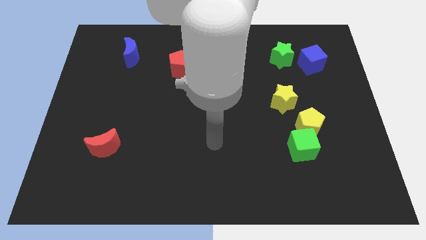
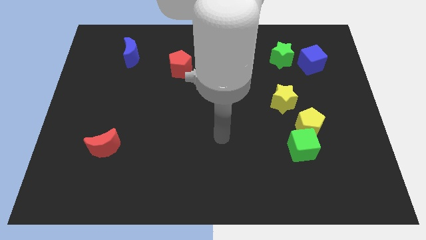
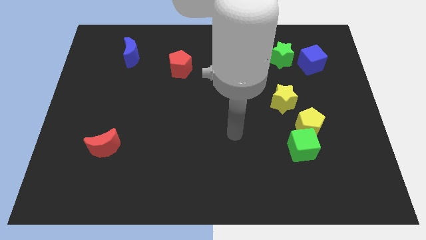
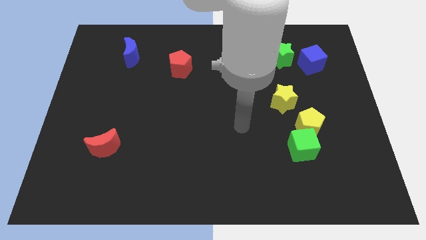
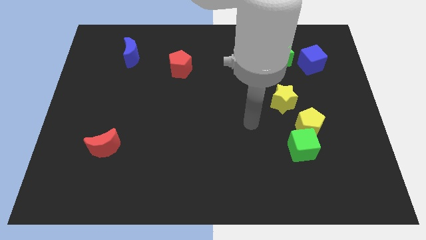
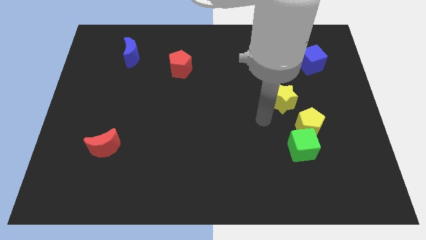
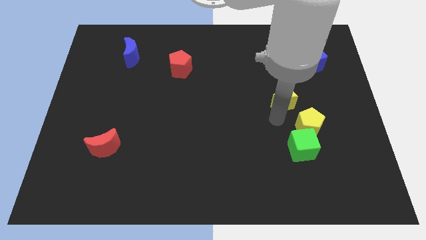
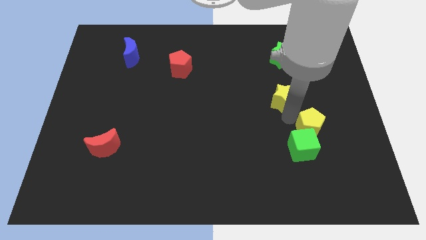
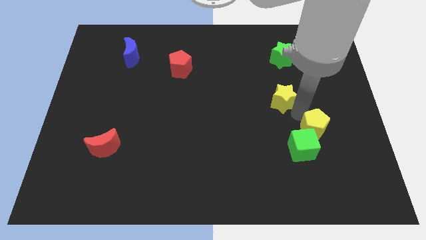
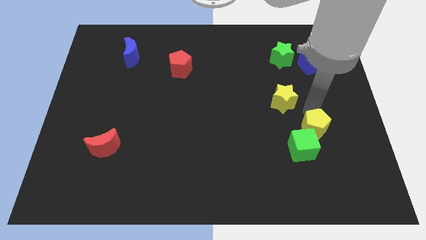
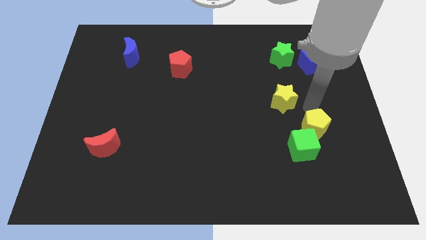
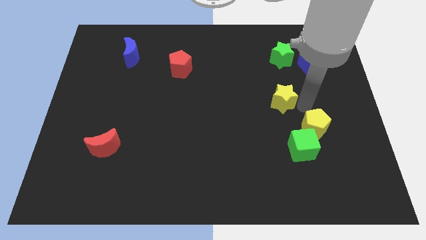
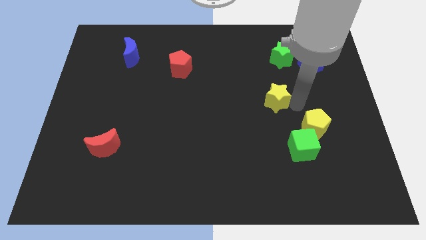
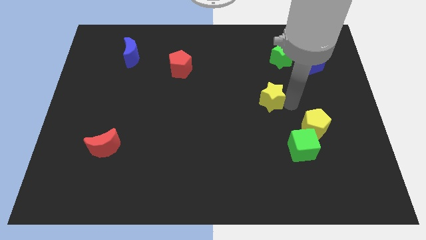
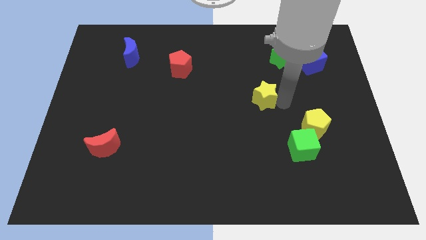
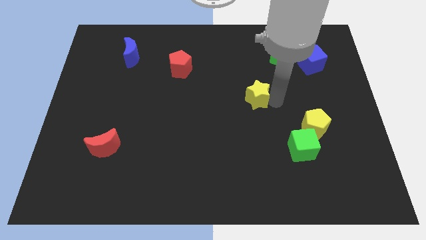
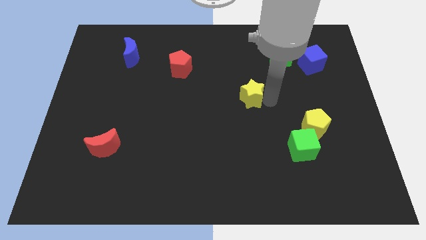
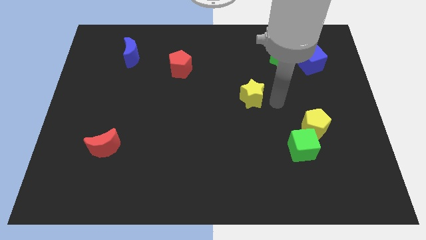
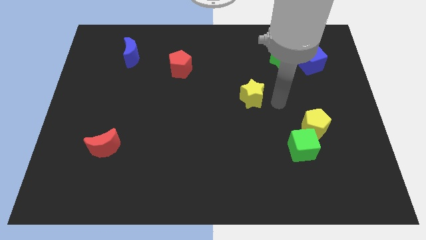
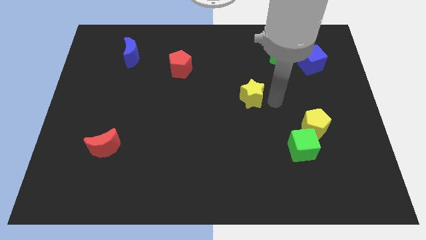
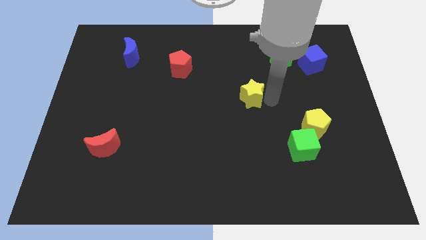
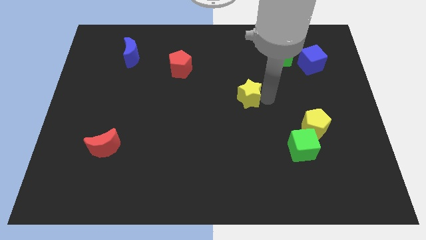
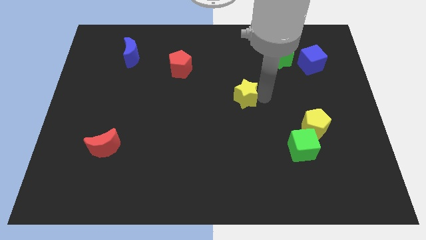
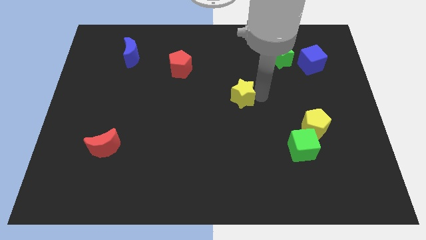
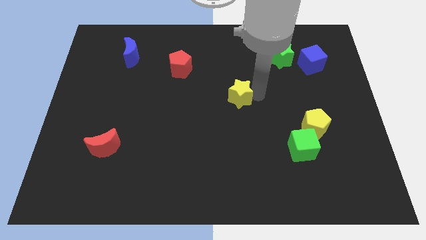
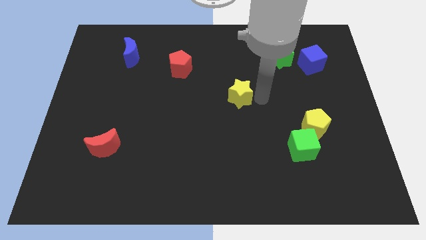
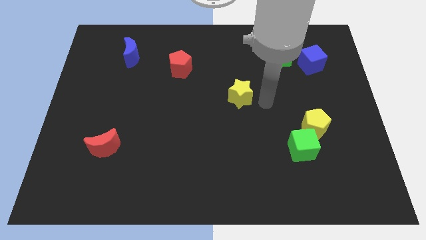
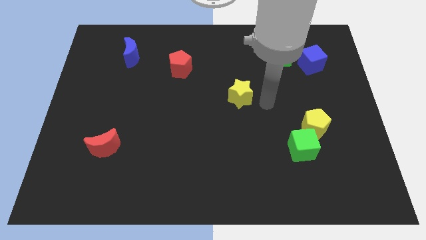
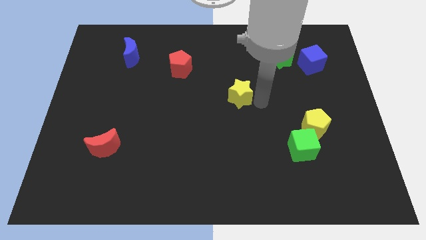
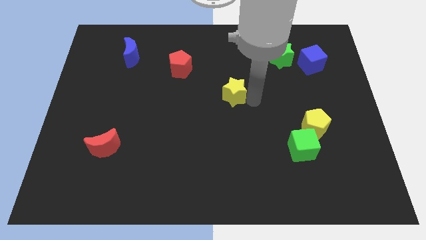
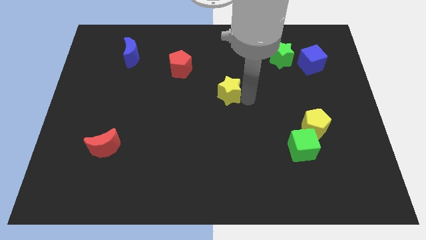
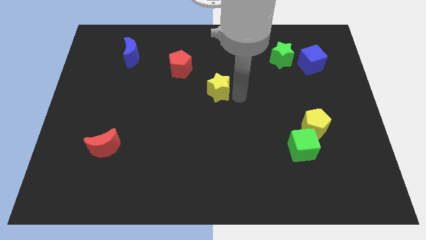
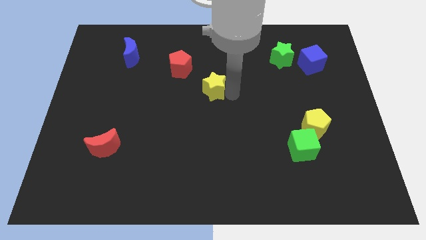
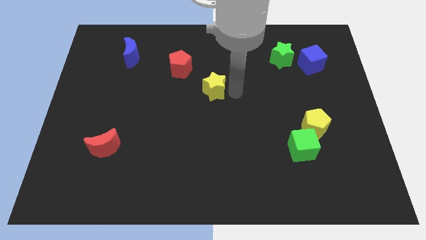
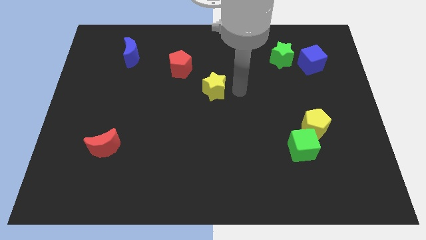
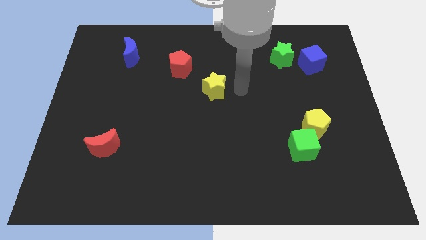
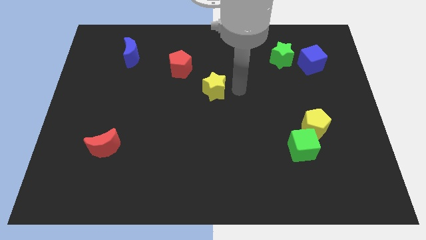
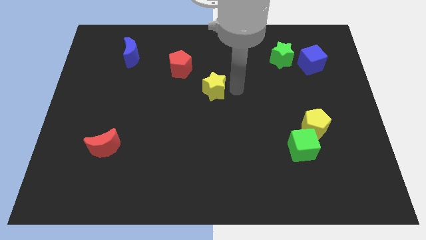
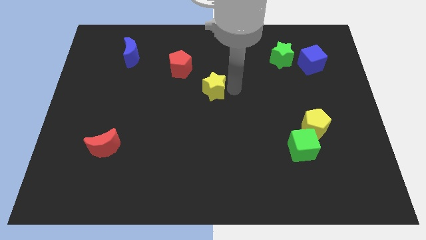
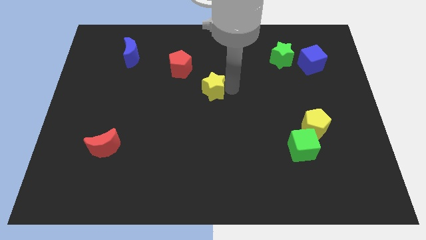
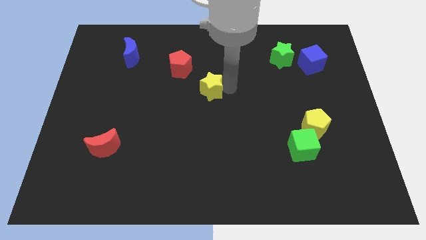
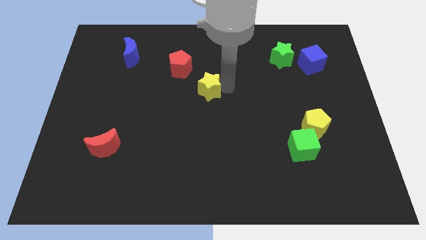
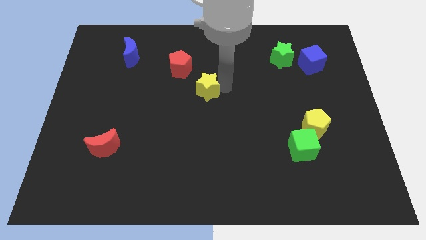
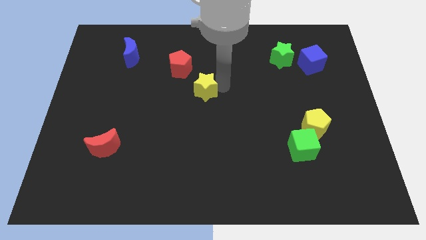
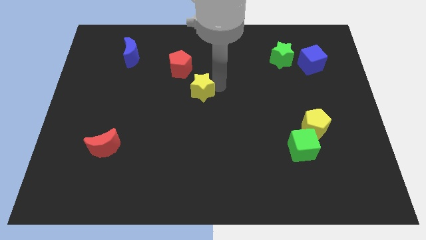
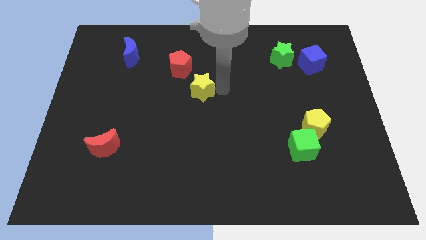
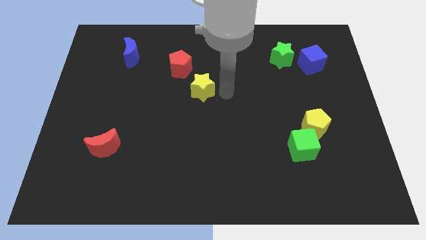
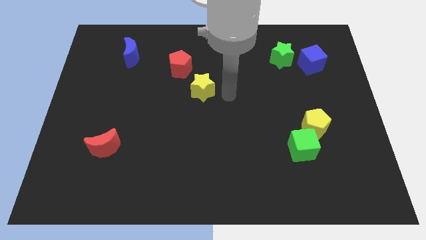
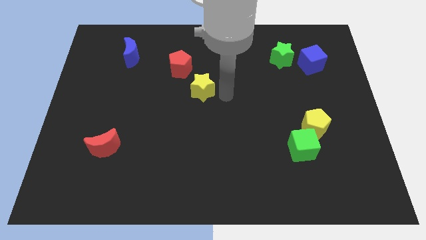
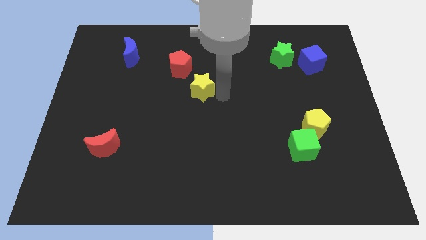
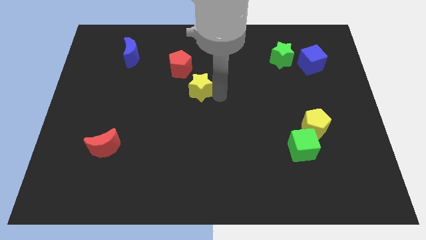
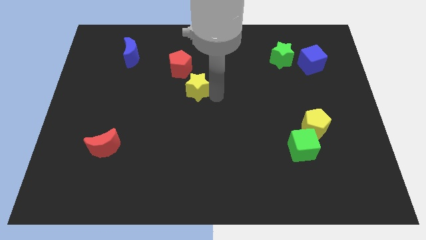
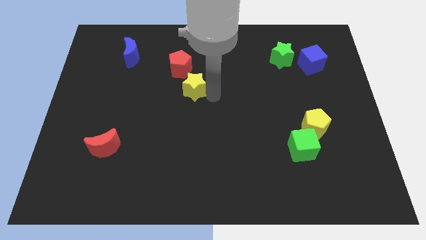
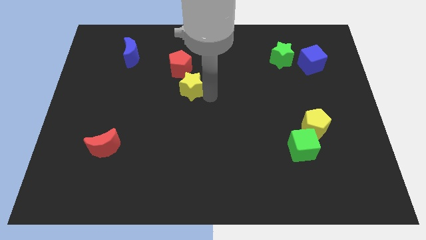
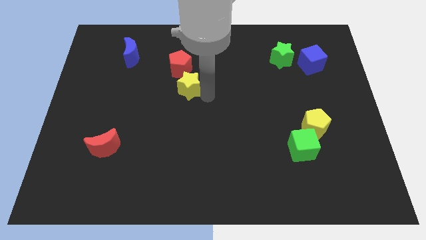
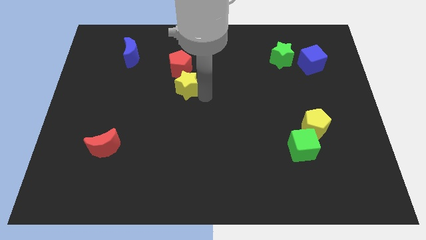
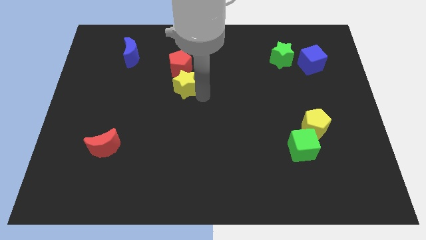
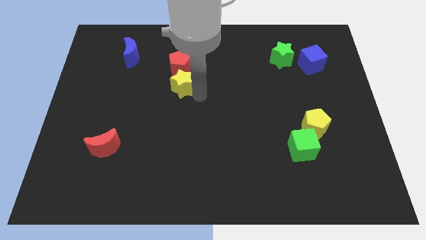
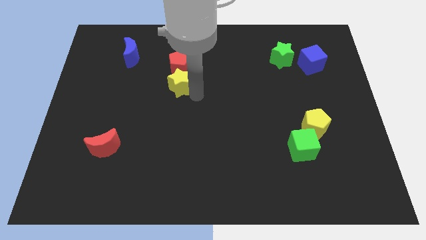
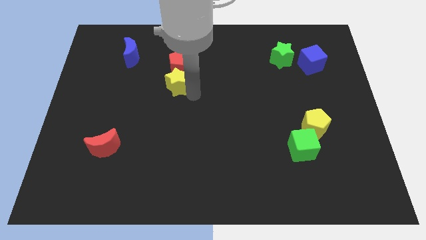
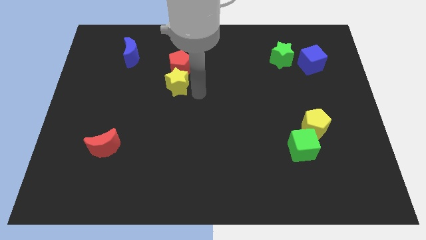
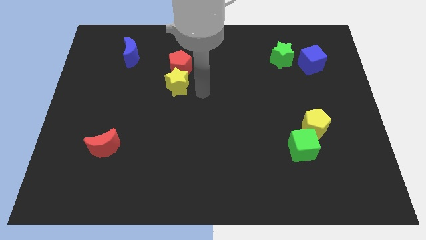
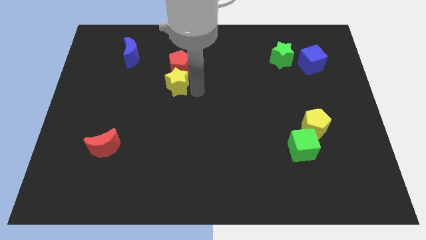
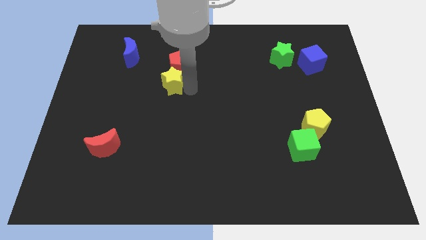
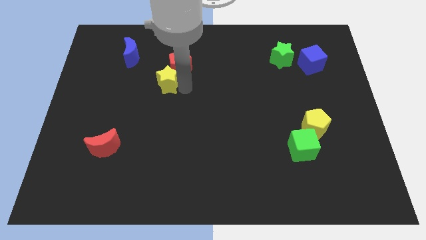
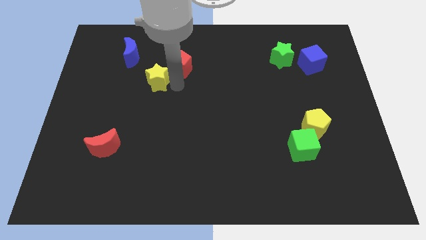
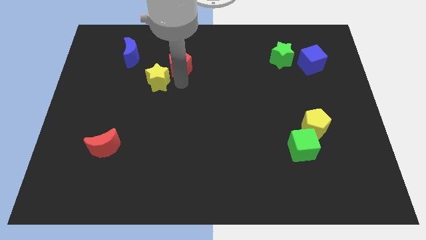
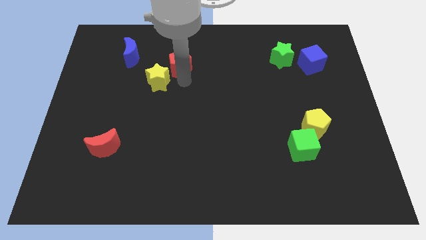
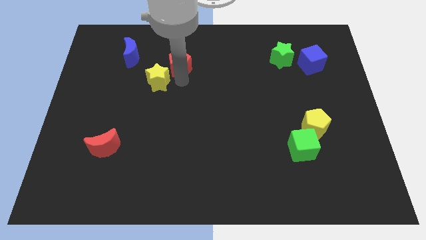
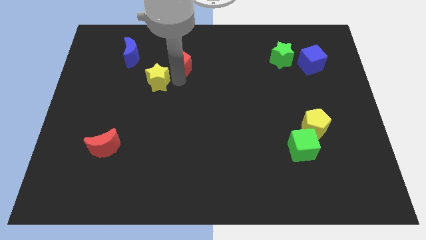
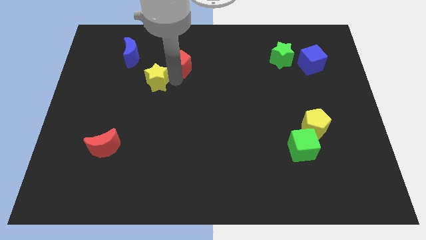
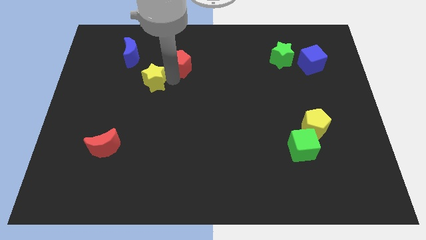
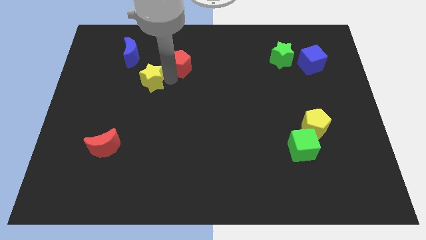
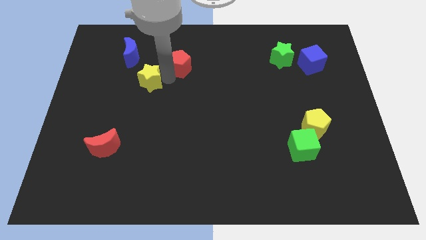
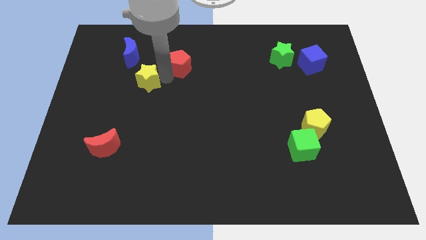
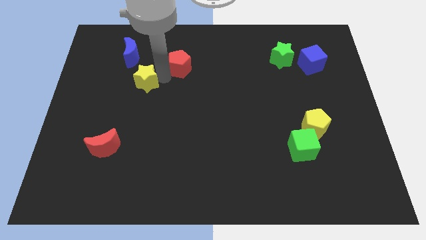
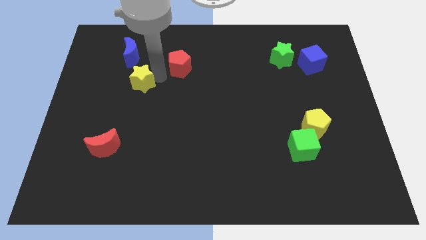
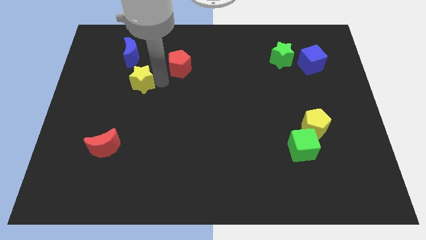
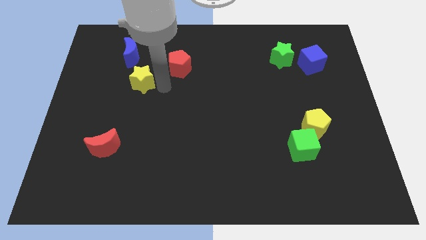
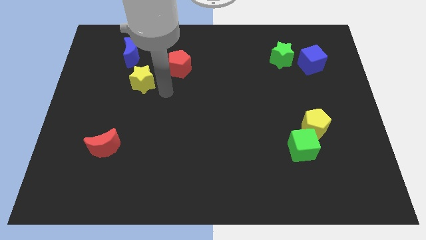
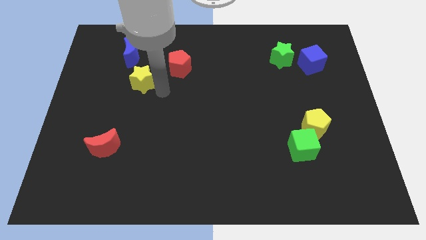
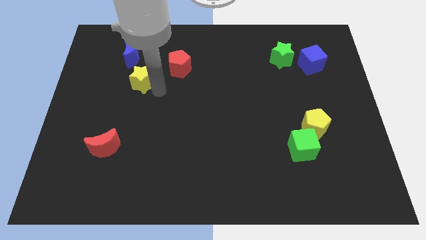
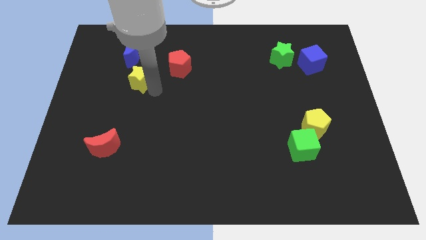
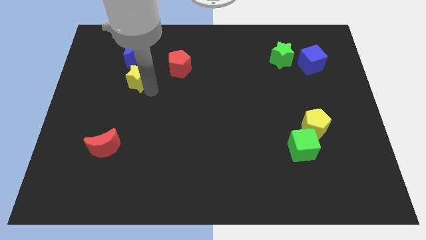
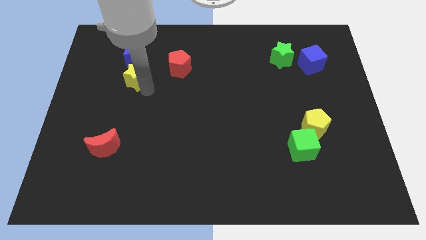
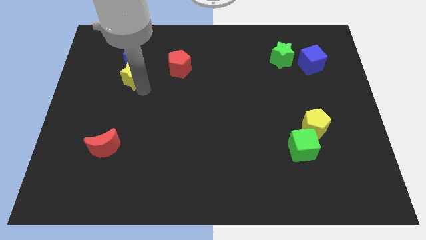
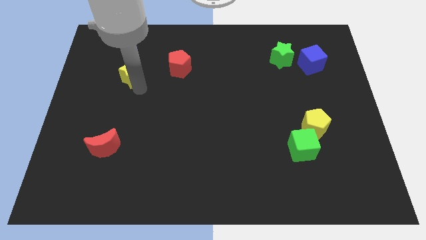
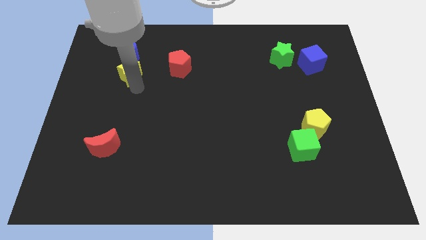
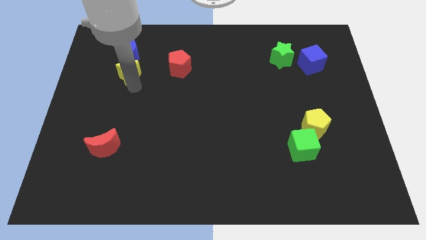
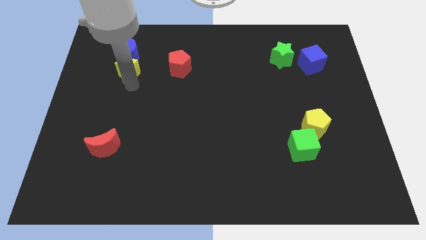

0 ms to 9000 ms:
put the yellow star to the bottom left of the blue moon
